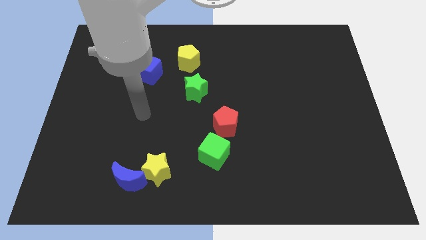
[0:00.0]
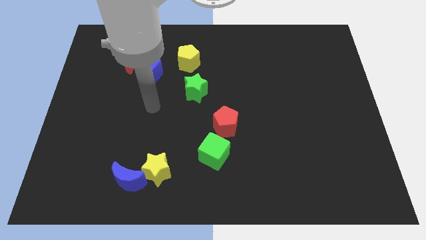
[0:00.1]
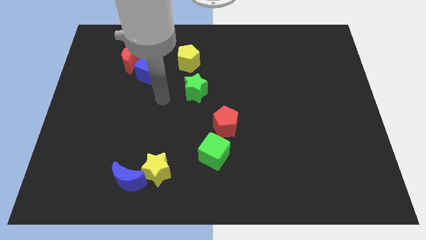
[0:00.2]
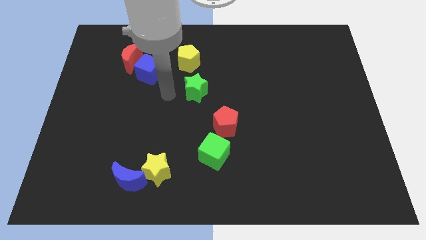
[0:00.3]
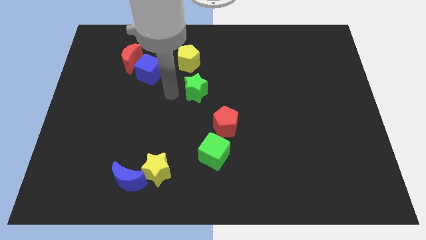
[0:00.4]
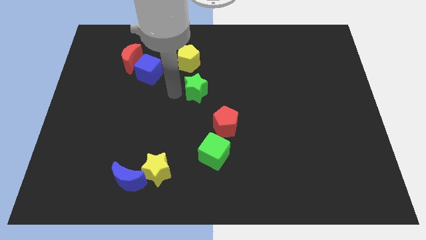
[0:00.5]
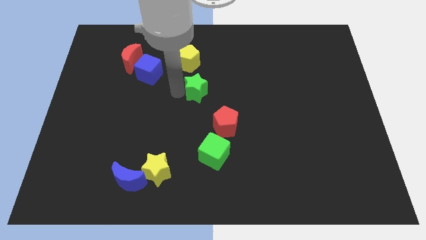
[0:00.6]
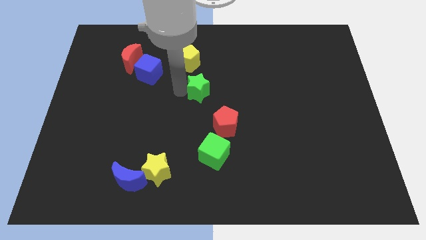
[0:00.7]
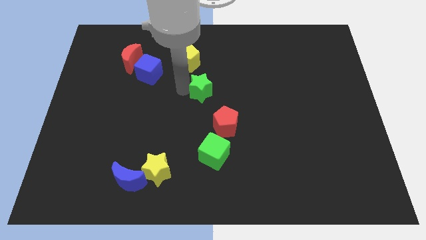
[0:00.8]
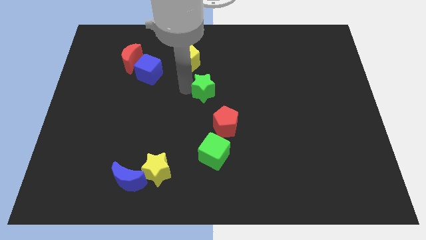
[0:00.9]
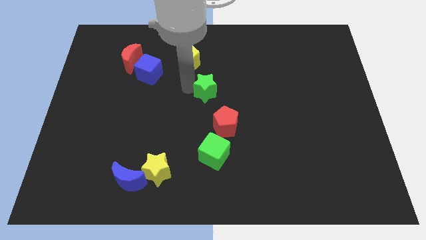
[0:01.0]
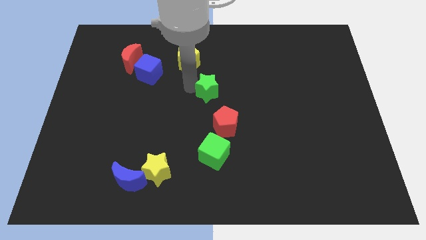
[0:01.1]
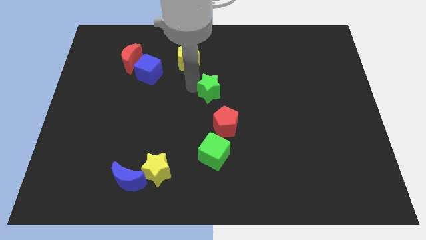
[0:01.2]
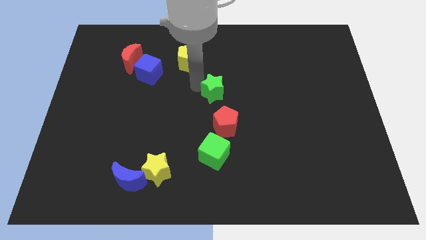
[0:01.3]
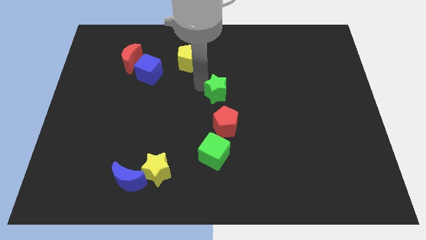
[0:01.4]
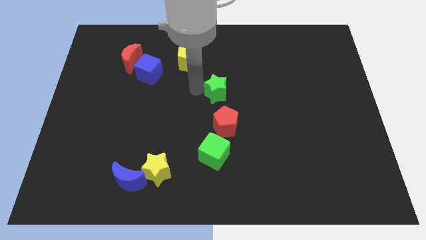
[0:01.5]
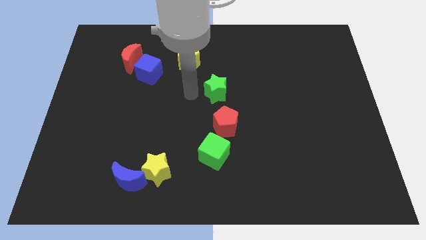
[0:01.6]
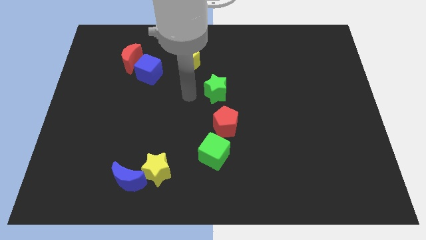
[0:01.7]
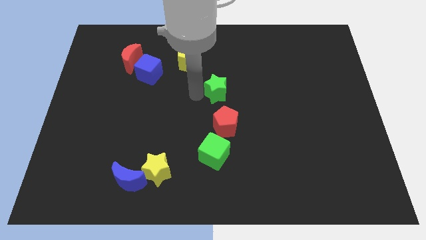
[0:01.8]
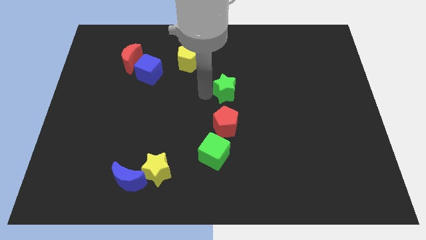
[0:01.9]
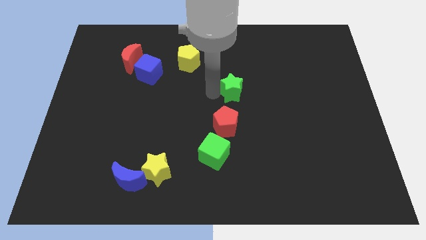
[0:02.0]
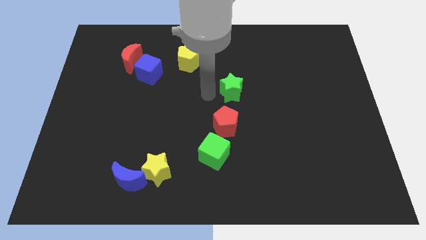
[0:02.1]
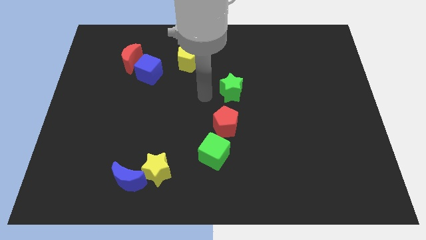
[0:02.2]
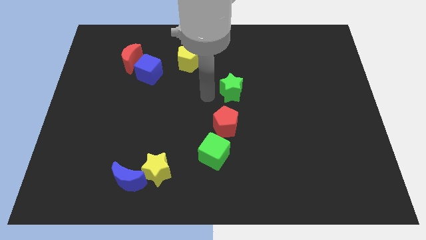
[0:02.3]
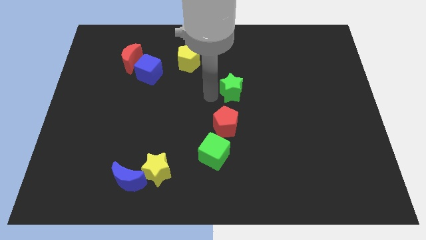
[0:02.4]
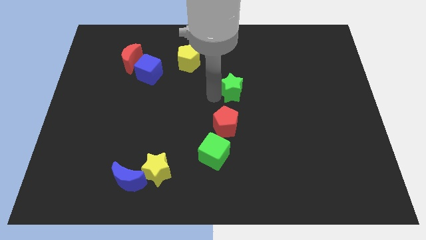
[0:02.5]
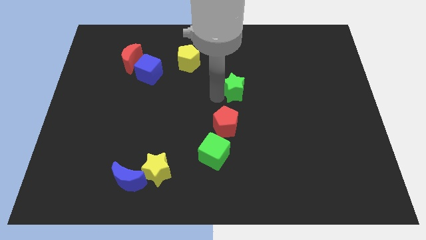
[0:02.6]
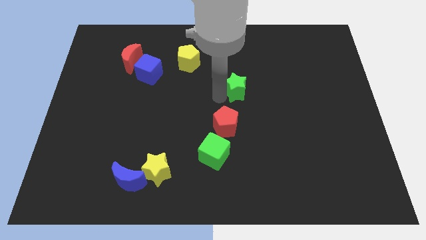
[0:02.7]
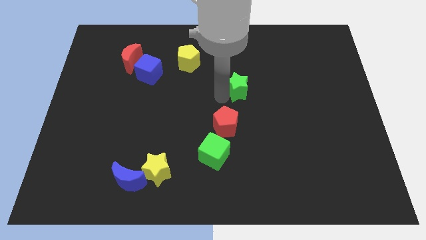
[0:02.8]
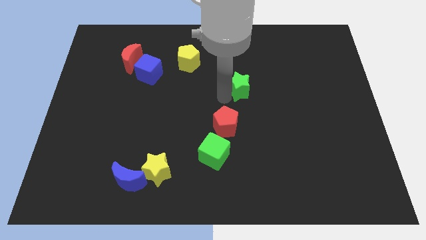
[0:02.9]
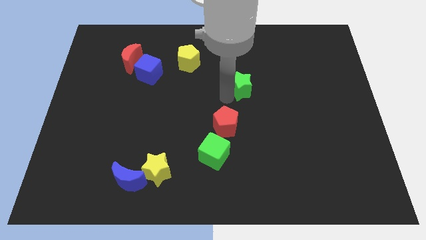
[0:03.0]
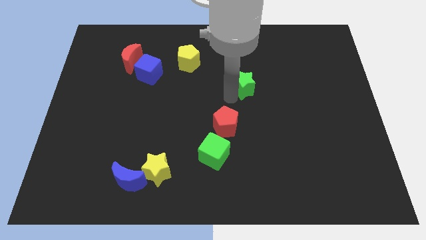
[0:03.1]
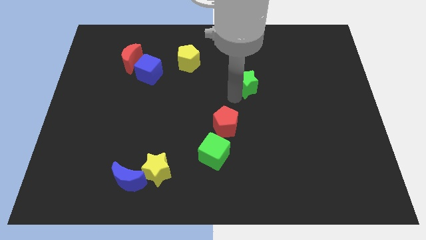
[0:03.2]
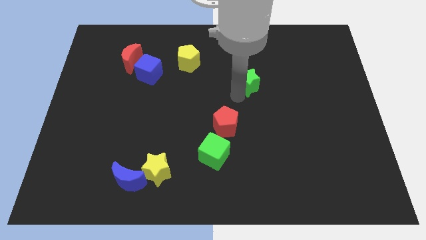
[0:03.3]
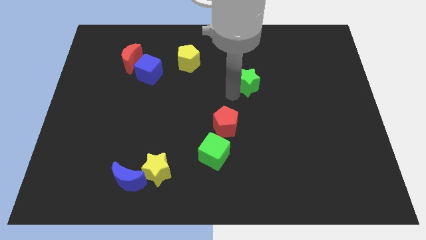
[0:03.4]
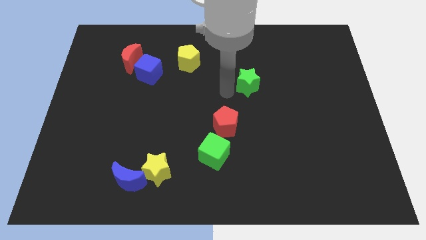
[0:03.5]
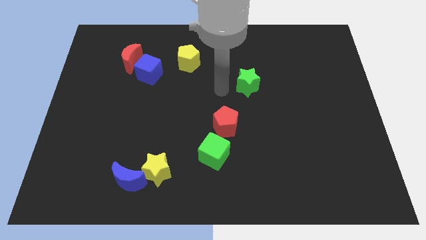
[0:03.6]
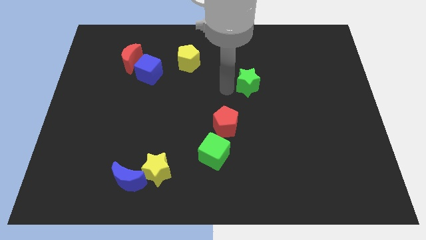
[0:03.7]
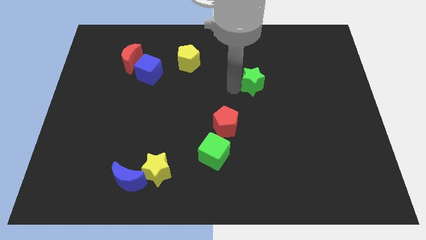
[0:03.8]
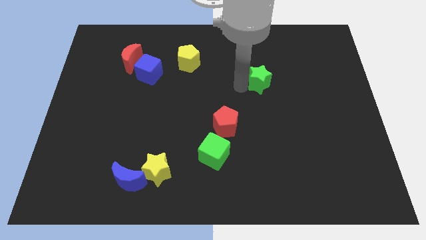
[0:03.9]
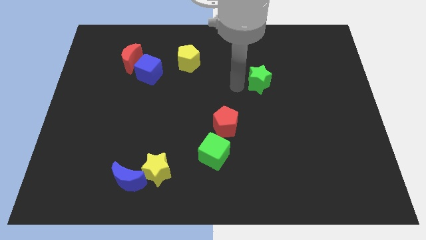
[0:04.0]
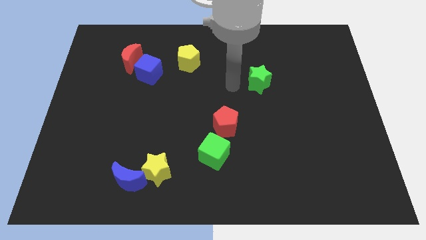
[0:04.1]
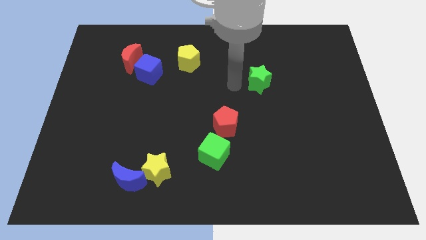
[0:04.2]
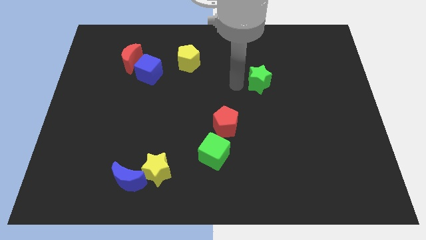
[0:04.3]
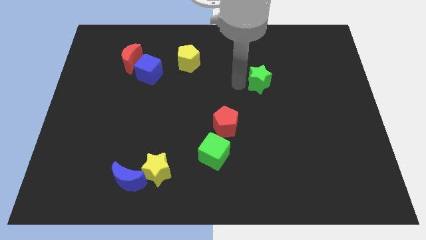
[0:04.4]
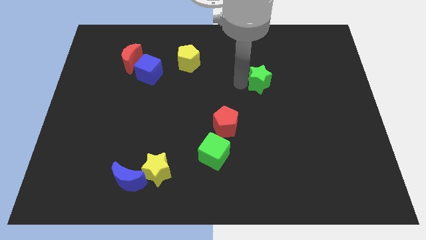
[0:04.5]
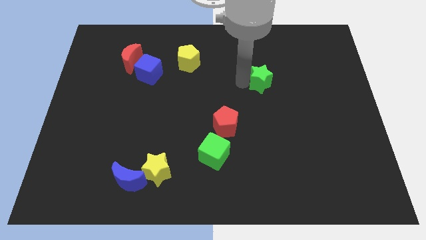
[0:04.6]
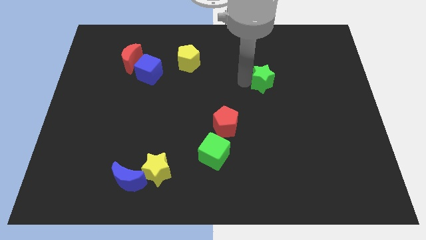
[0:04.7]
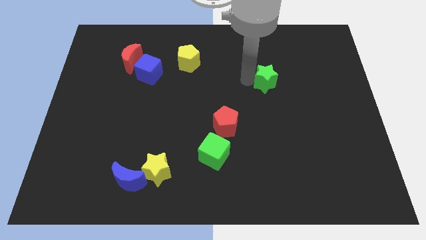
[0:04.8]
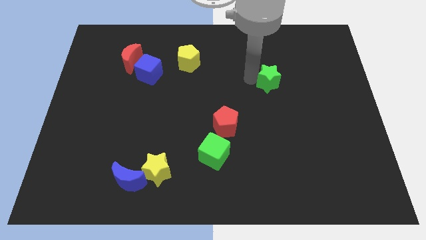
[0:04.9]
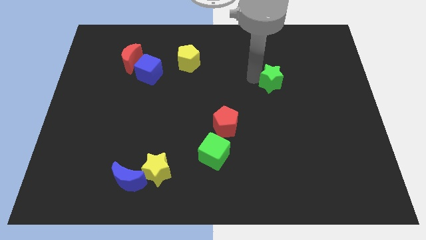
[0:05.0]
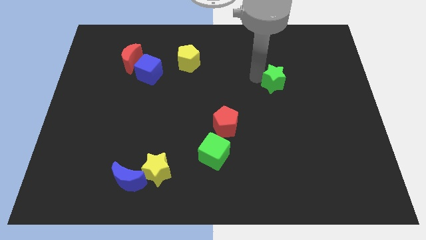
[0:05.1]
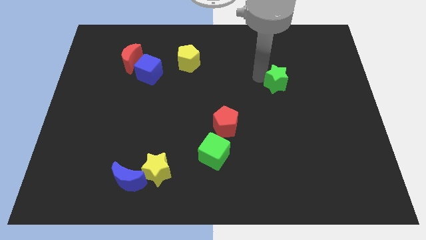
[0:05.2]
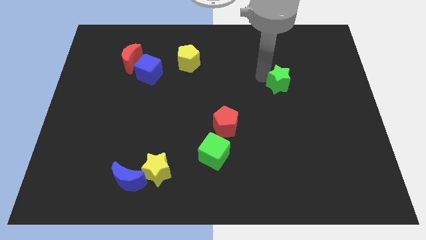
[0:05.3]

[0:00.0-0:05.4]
move the green star right

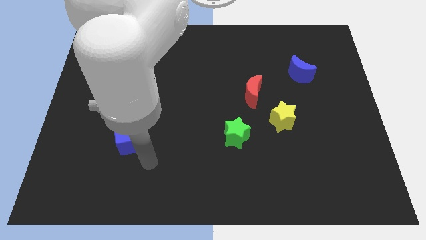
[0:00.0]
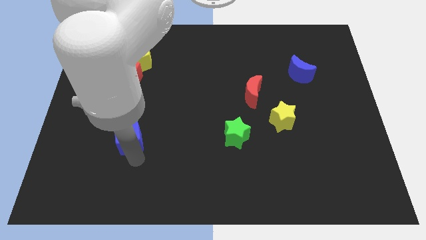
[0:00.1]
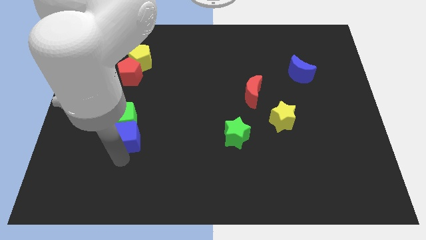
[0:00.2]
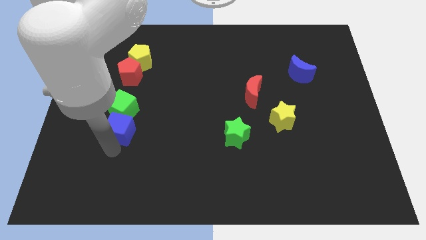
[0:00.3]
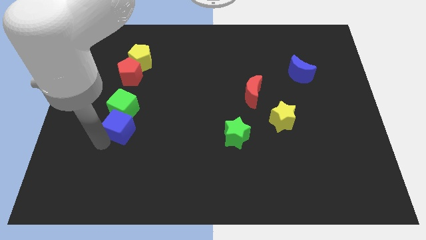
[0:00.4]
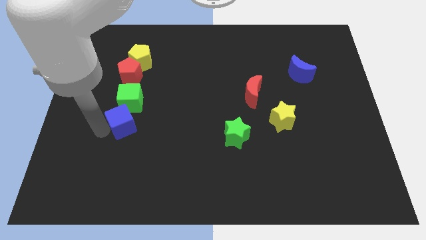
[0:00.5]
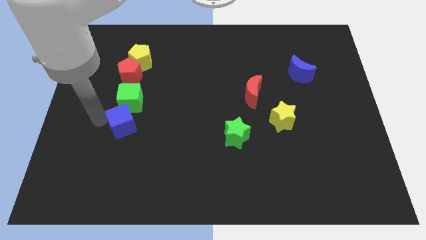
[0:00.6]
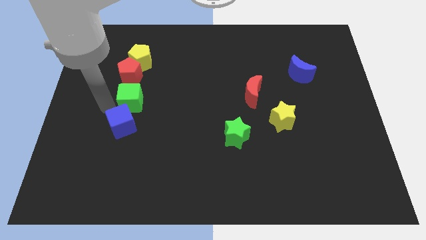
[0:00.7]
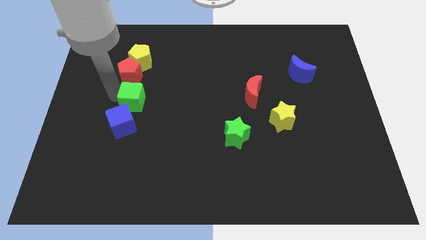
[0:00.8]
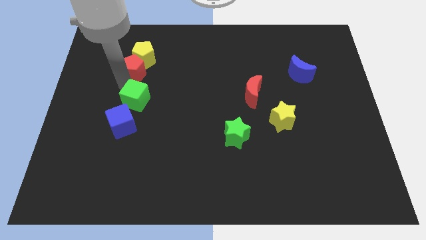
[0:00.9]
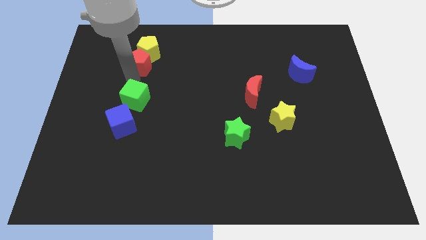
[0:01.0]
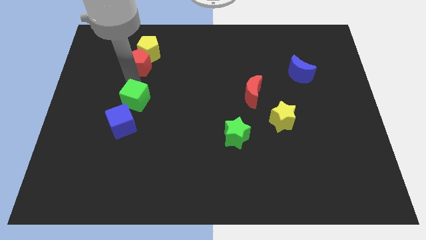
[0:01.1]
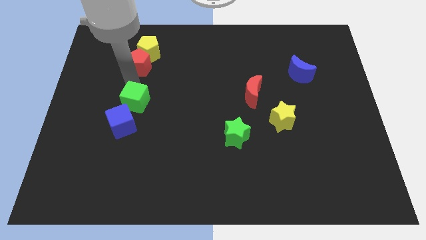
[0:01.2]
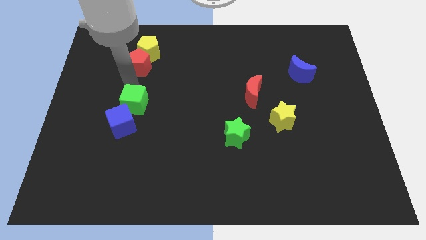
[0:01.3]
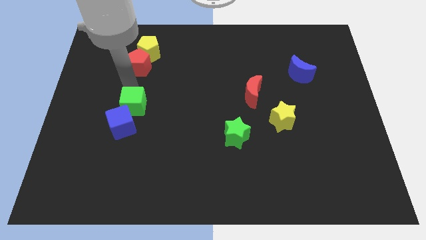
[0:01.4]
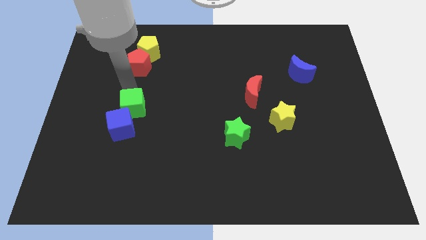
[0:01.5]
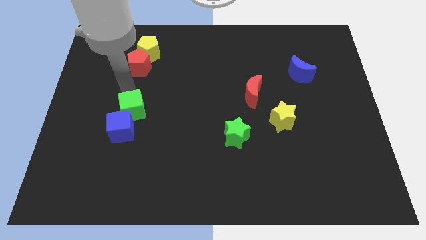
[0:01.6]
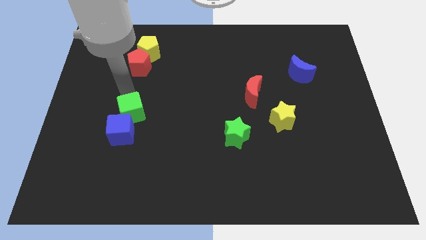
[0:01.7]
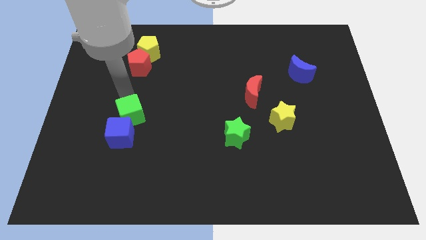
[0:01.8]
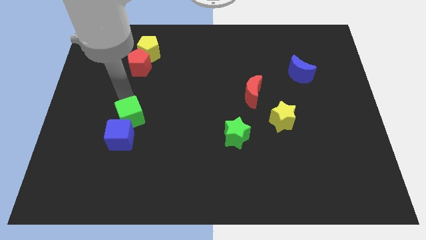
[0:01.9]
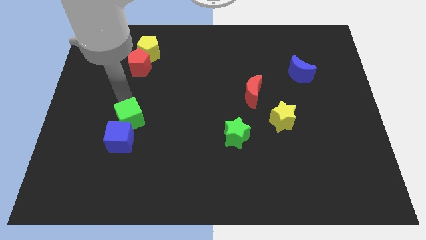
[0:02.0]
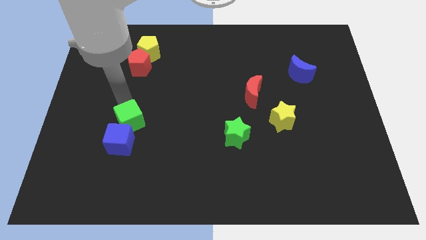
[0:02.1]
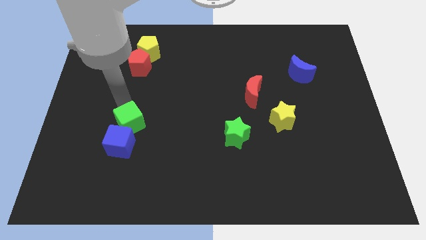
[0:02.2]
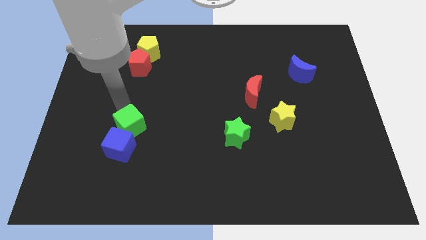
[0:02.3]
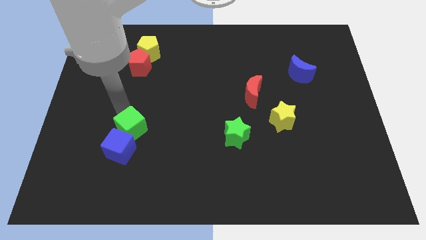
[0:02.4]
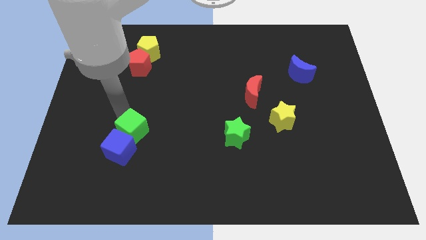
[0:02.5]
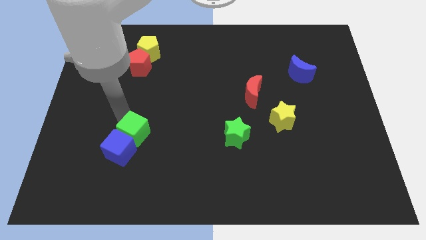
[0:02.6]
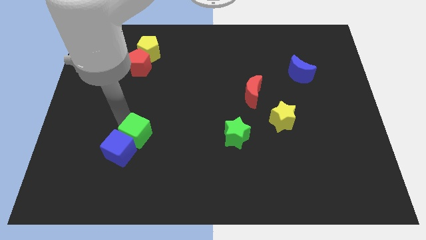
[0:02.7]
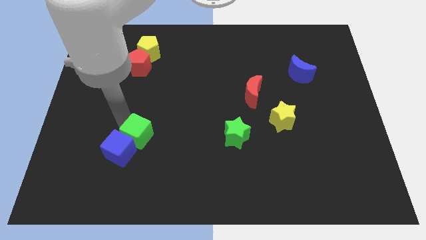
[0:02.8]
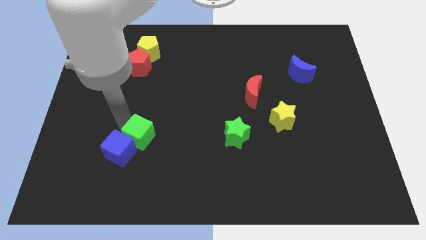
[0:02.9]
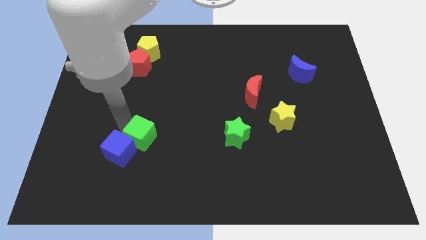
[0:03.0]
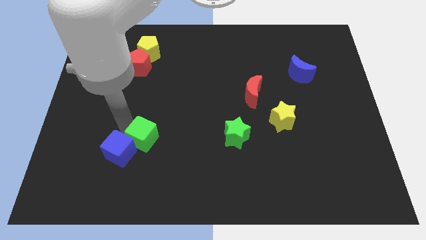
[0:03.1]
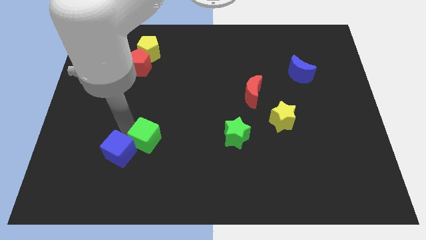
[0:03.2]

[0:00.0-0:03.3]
slightly slide the green cube down and to the right
